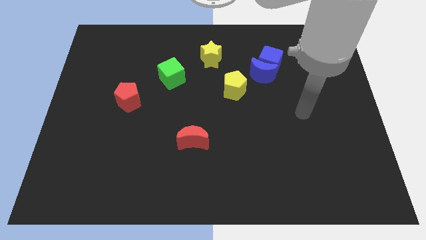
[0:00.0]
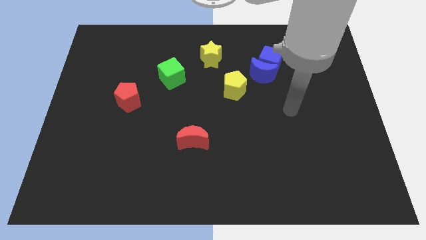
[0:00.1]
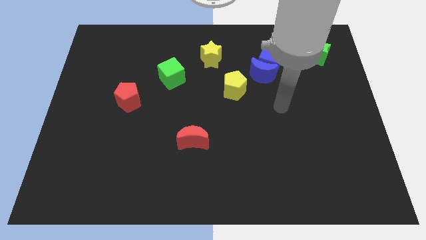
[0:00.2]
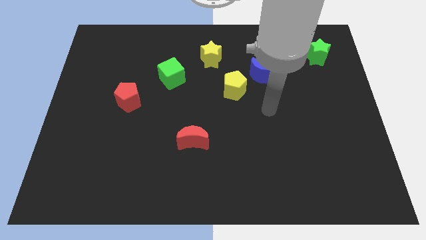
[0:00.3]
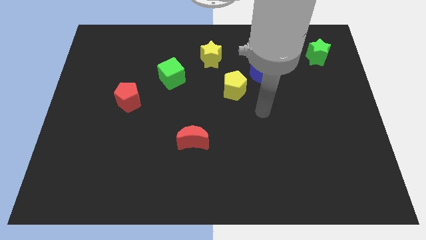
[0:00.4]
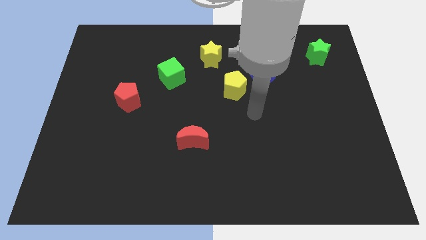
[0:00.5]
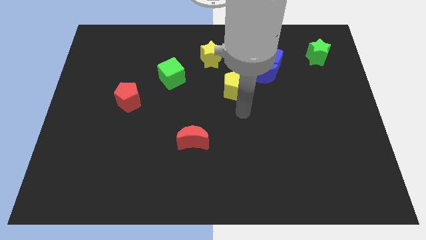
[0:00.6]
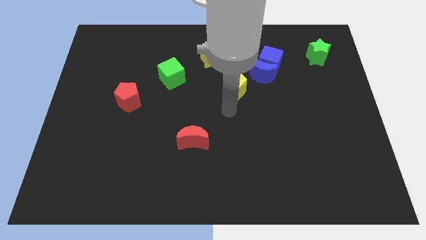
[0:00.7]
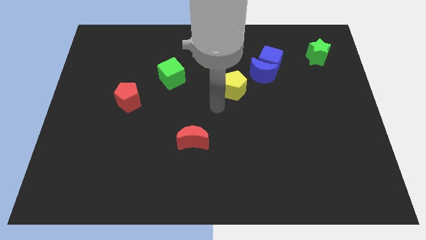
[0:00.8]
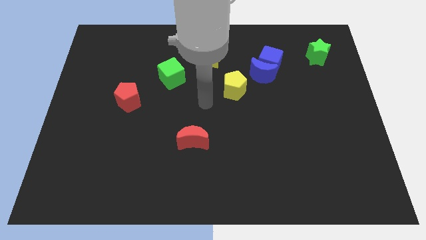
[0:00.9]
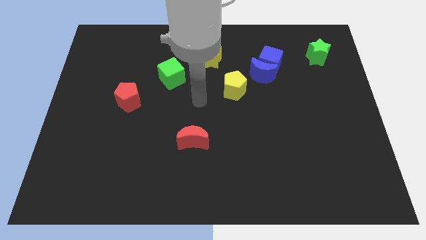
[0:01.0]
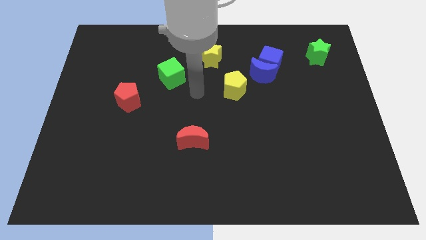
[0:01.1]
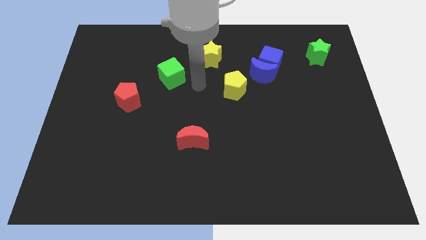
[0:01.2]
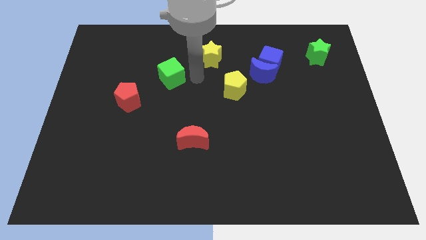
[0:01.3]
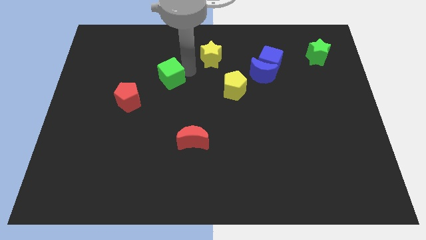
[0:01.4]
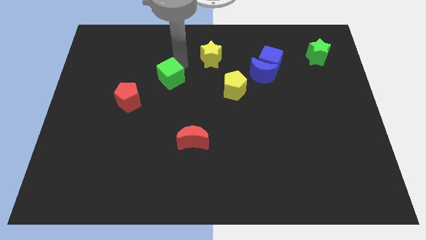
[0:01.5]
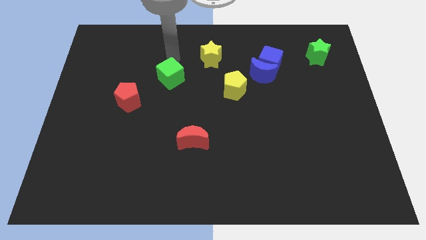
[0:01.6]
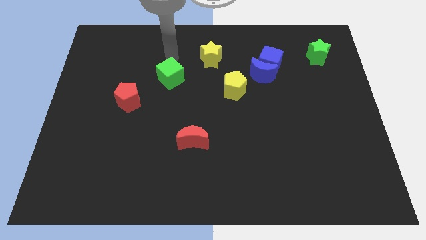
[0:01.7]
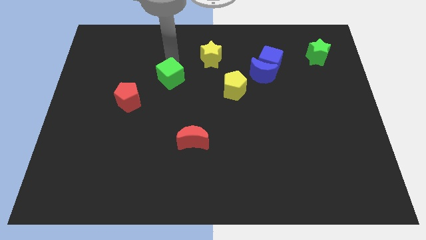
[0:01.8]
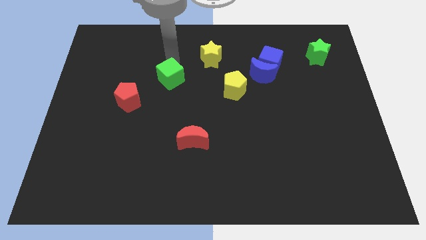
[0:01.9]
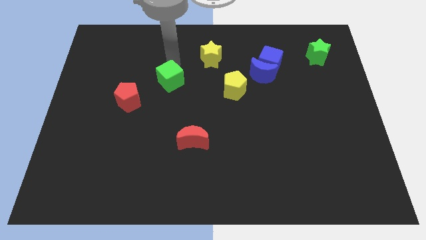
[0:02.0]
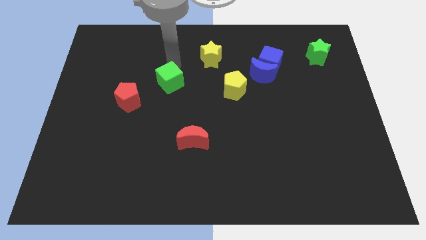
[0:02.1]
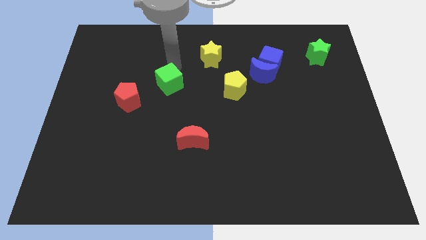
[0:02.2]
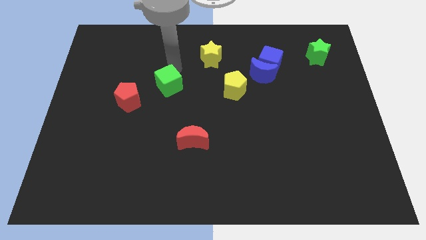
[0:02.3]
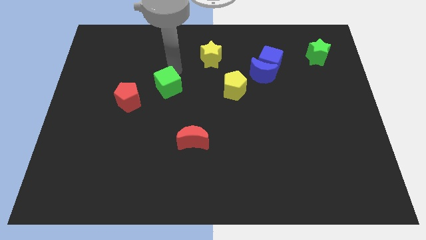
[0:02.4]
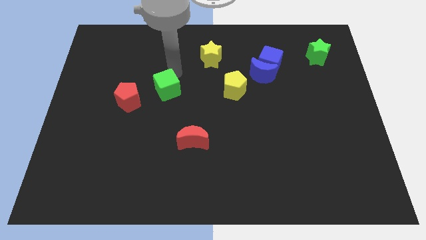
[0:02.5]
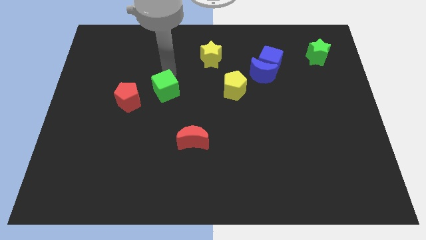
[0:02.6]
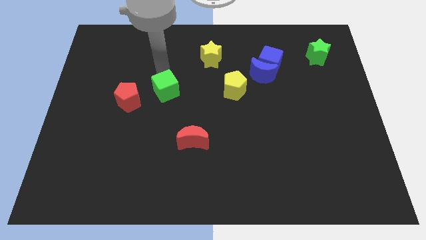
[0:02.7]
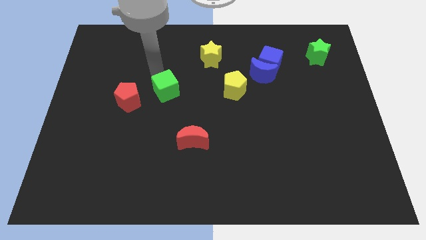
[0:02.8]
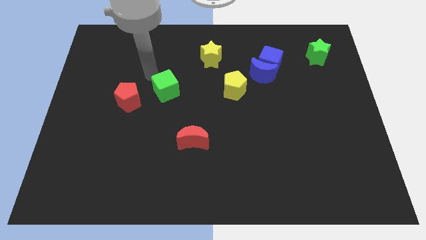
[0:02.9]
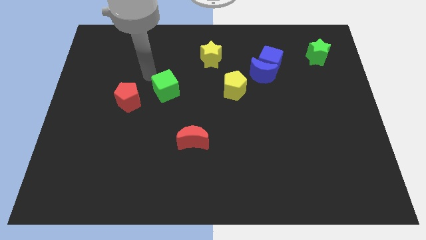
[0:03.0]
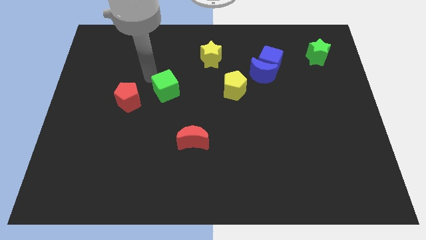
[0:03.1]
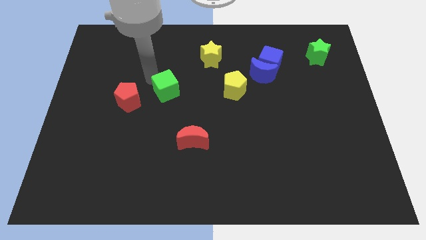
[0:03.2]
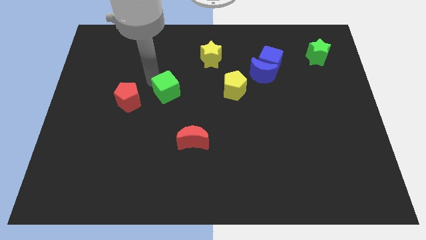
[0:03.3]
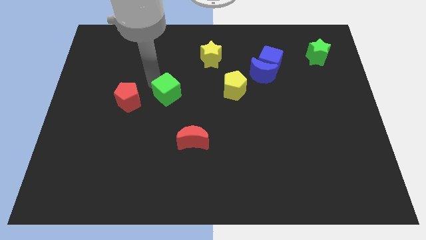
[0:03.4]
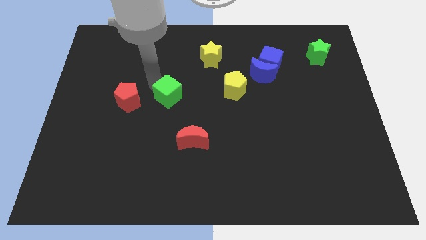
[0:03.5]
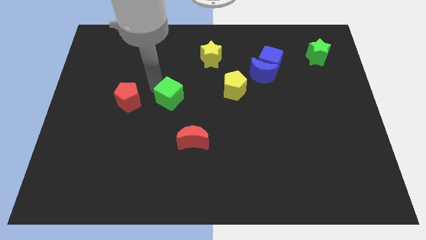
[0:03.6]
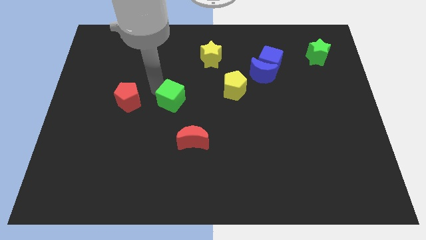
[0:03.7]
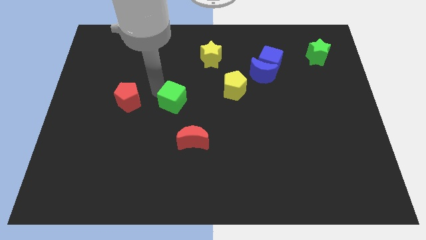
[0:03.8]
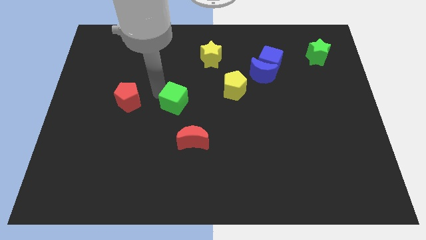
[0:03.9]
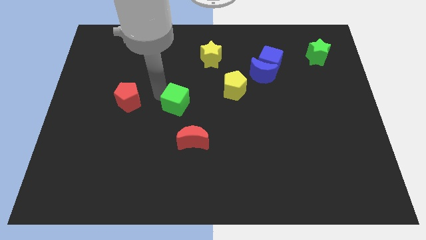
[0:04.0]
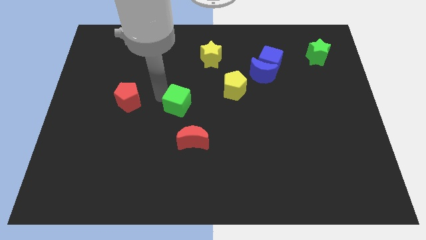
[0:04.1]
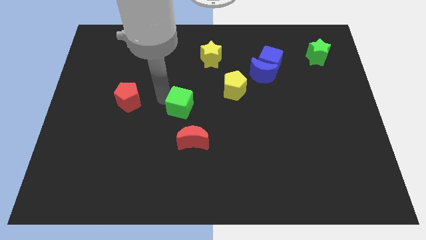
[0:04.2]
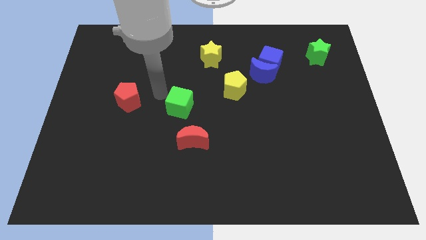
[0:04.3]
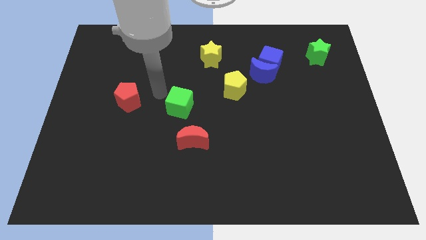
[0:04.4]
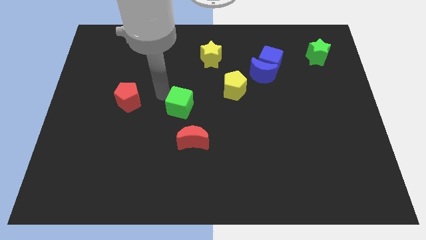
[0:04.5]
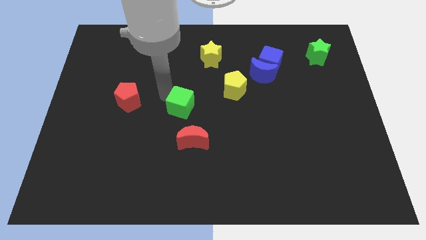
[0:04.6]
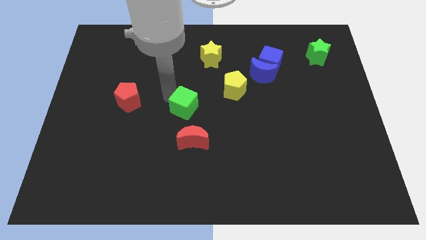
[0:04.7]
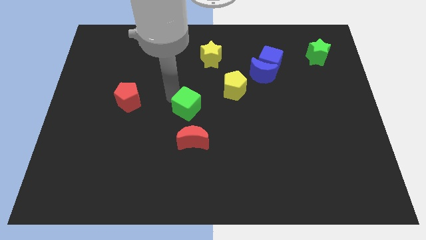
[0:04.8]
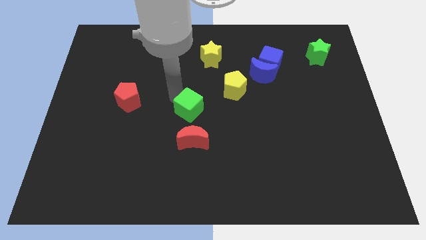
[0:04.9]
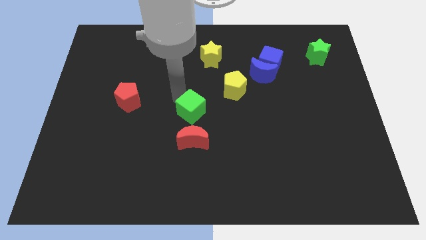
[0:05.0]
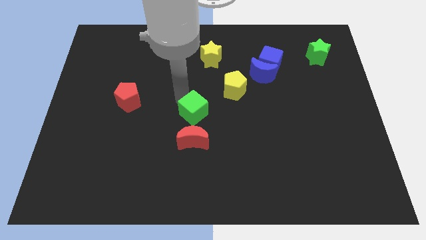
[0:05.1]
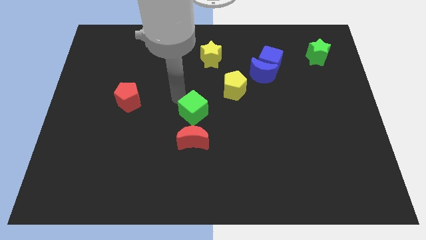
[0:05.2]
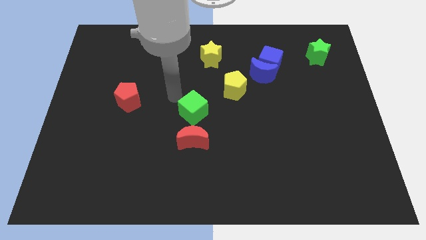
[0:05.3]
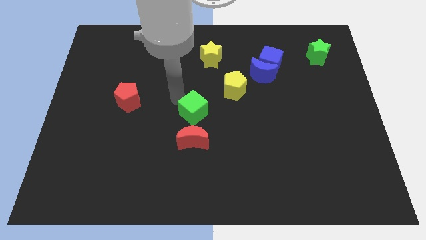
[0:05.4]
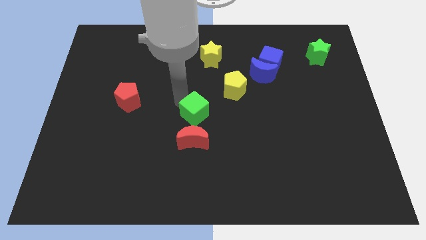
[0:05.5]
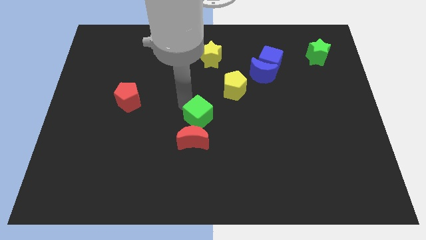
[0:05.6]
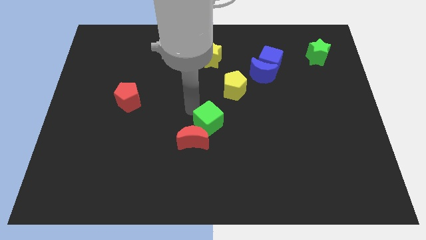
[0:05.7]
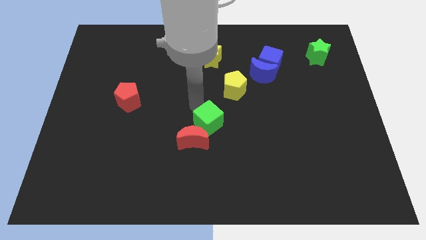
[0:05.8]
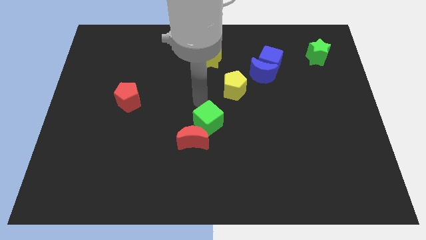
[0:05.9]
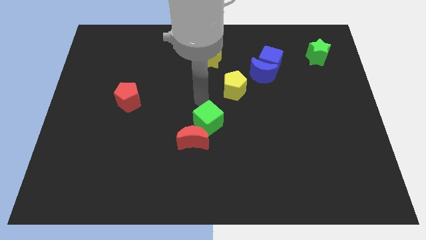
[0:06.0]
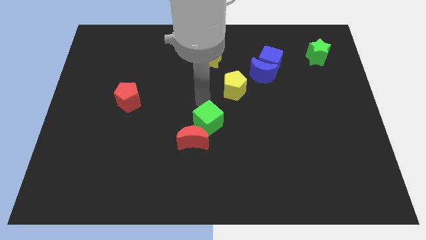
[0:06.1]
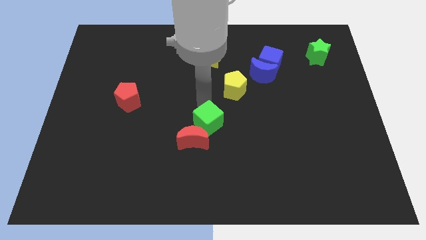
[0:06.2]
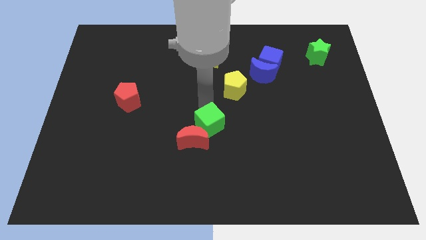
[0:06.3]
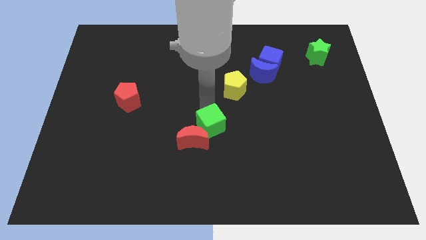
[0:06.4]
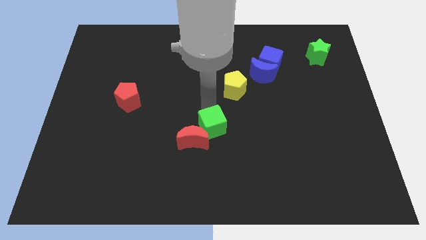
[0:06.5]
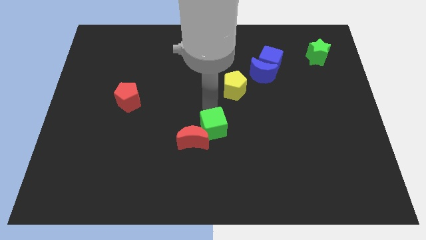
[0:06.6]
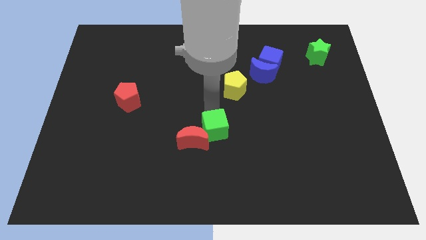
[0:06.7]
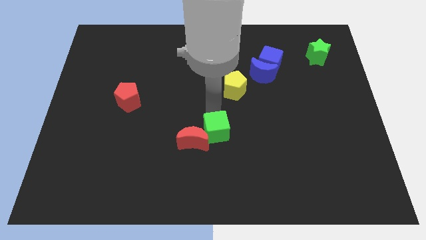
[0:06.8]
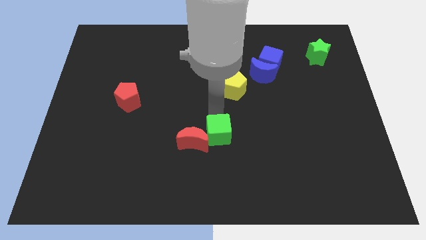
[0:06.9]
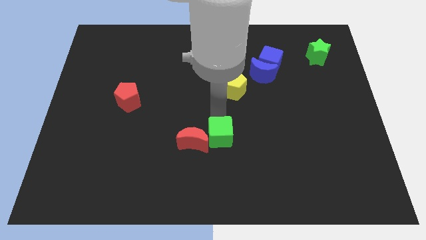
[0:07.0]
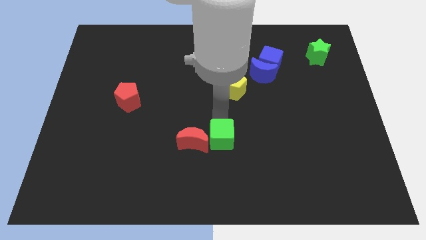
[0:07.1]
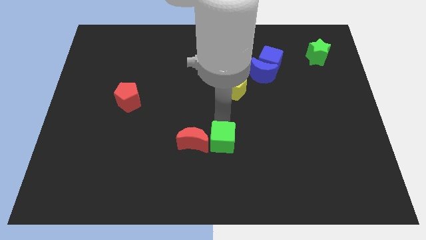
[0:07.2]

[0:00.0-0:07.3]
slide the green cube diagonally down and to the right of the red moon

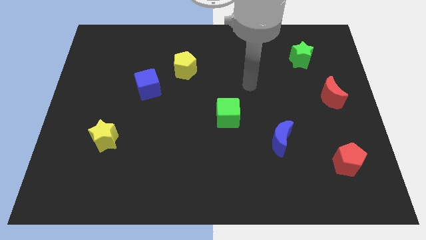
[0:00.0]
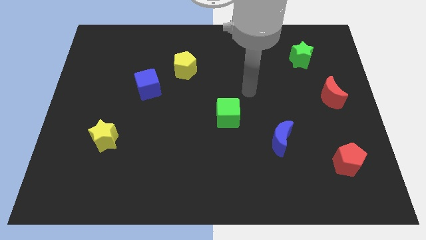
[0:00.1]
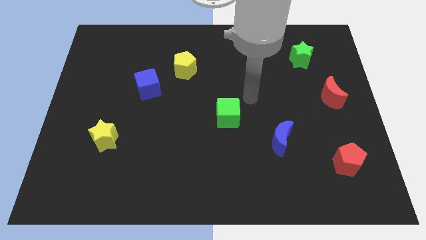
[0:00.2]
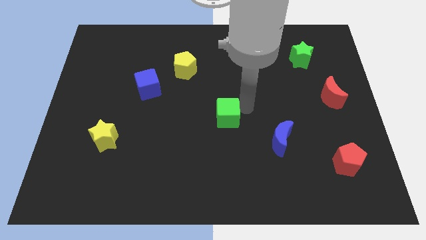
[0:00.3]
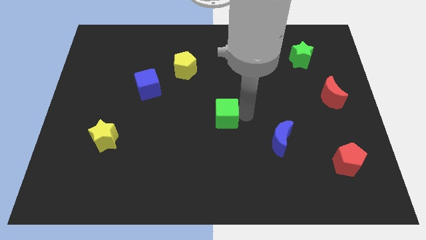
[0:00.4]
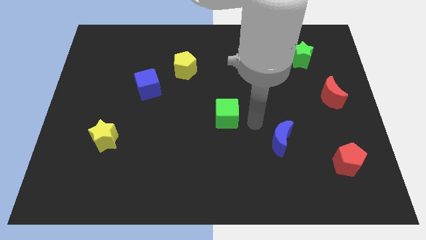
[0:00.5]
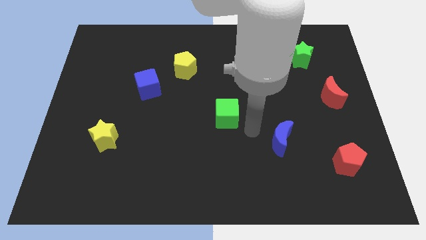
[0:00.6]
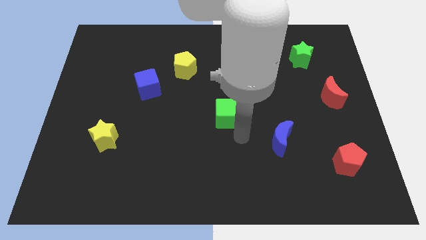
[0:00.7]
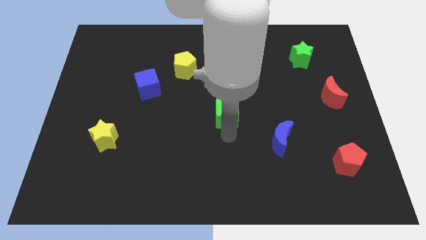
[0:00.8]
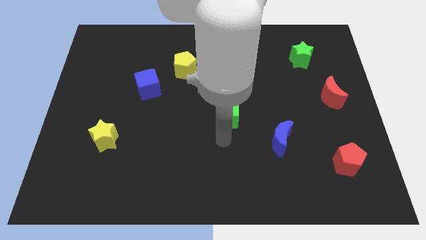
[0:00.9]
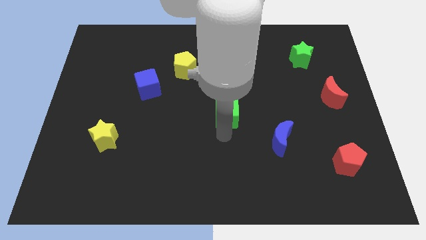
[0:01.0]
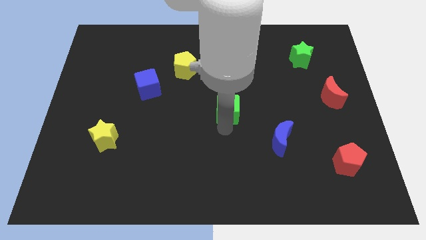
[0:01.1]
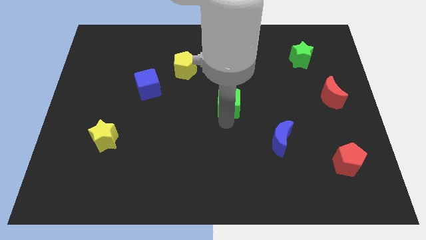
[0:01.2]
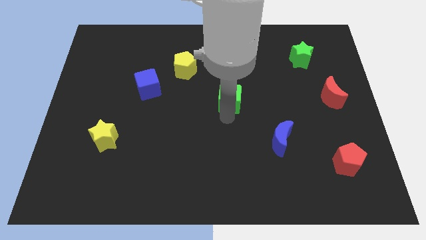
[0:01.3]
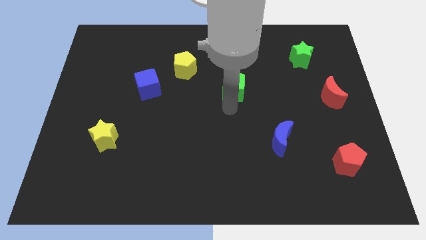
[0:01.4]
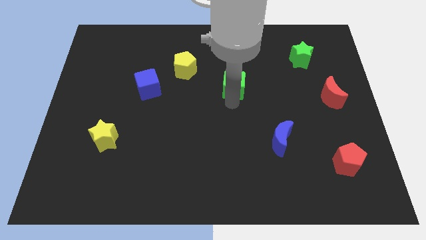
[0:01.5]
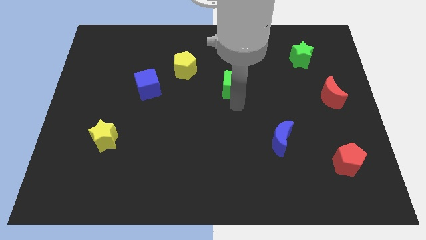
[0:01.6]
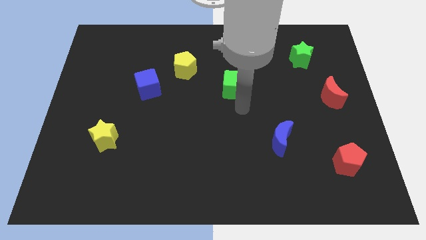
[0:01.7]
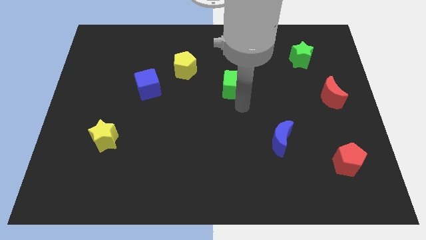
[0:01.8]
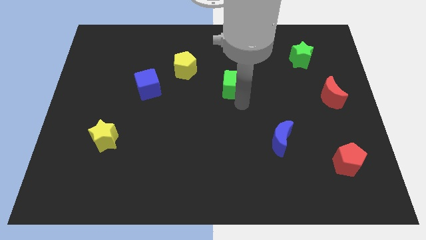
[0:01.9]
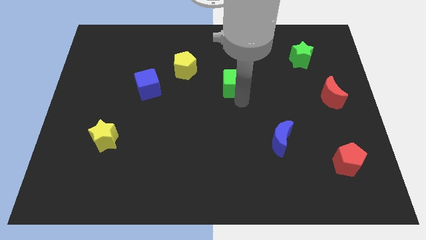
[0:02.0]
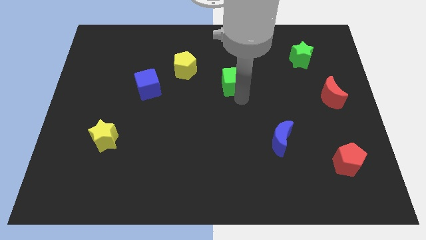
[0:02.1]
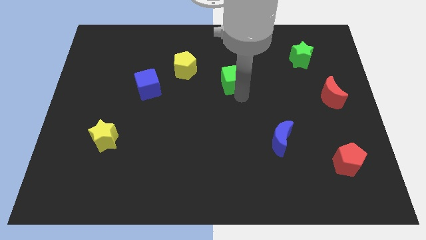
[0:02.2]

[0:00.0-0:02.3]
push the green cube just right of the yellow pentagon
